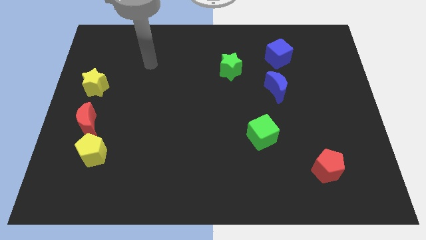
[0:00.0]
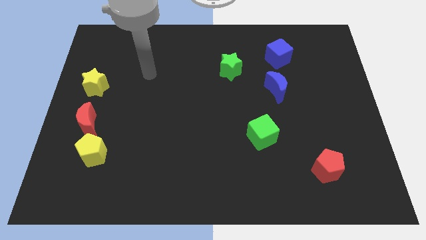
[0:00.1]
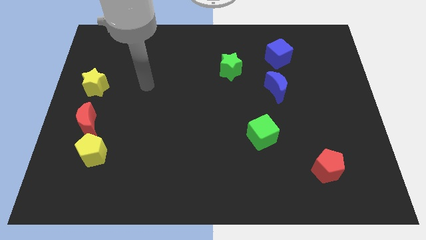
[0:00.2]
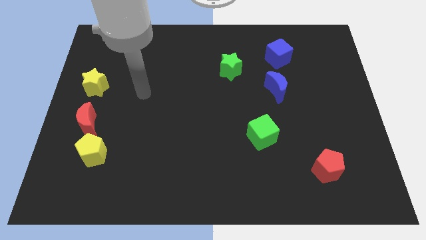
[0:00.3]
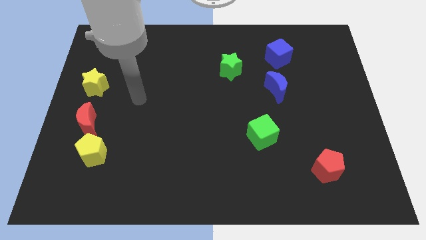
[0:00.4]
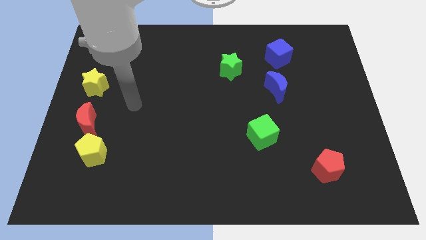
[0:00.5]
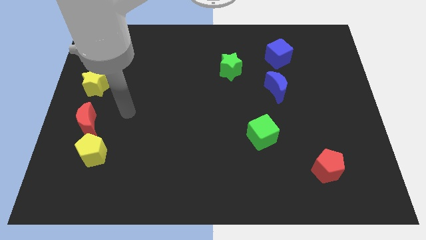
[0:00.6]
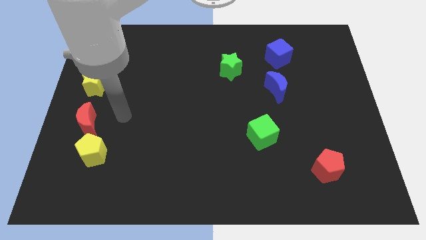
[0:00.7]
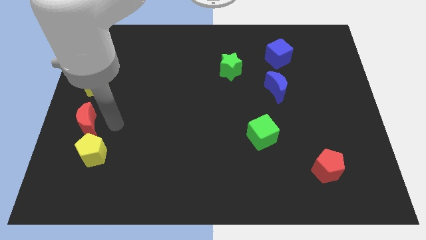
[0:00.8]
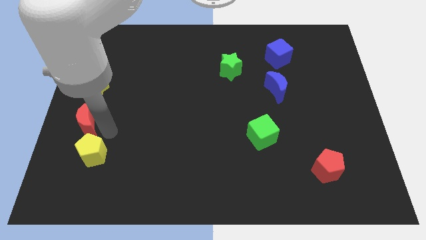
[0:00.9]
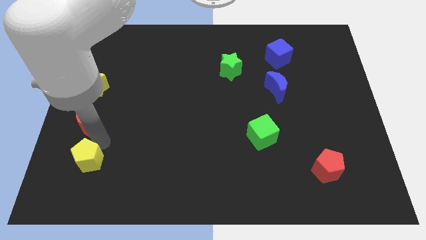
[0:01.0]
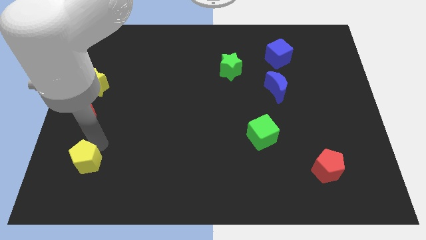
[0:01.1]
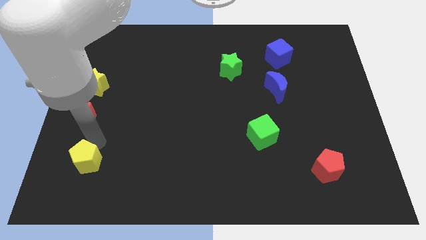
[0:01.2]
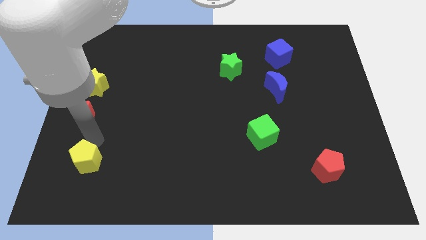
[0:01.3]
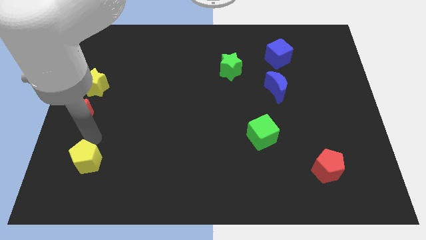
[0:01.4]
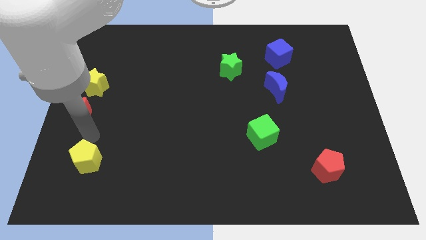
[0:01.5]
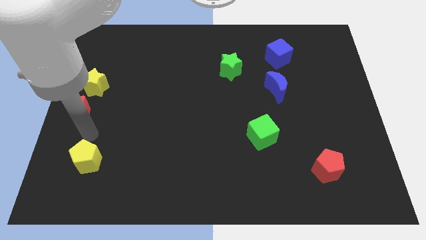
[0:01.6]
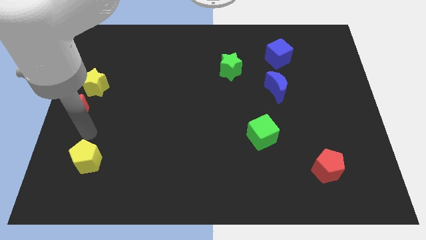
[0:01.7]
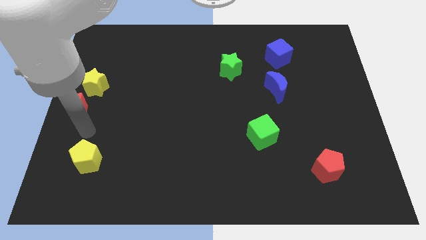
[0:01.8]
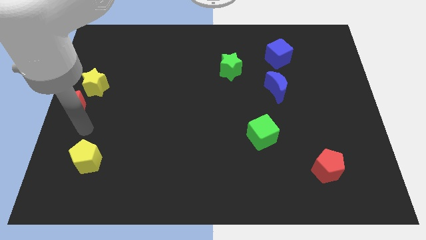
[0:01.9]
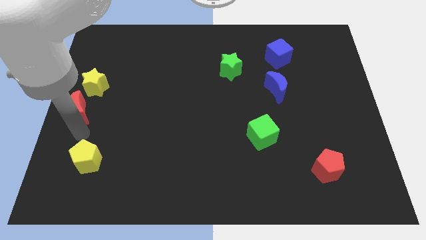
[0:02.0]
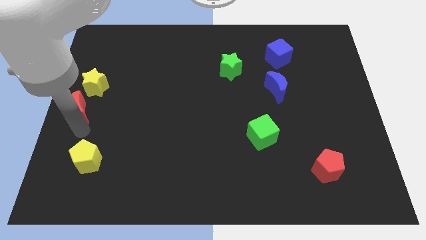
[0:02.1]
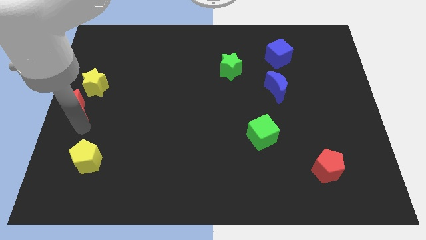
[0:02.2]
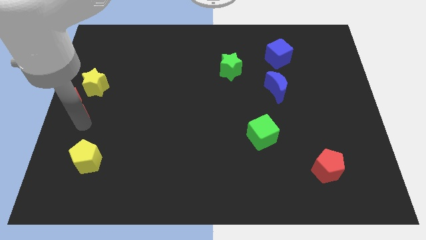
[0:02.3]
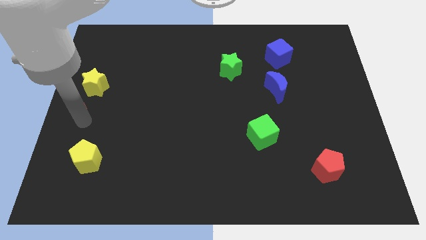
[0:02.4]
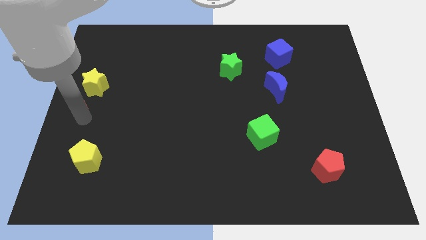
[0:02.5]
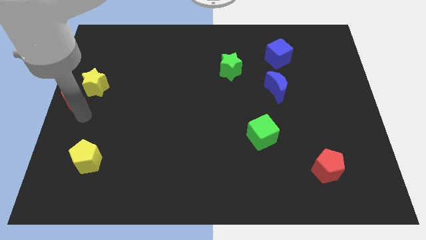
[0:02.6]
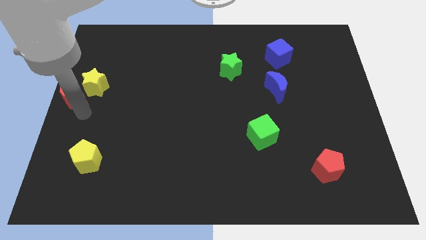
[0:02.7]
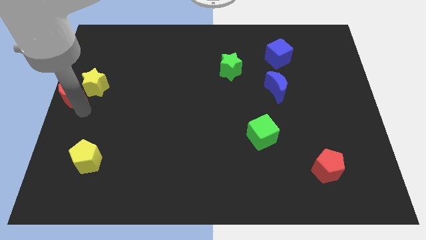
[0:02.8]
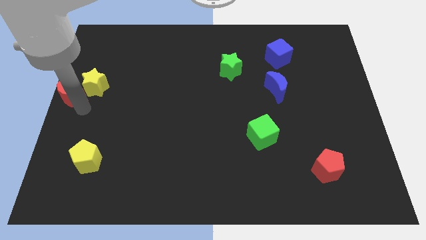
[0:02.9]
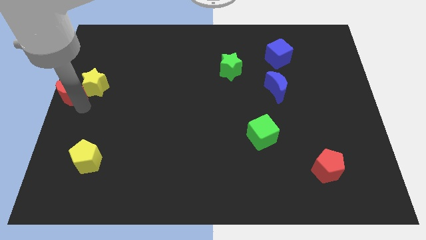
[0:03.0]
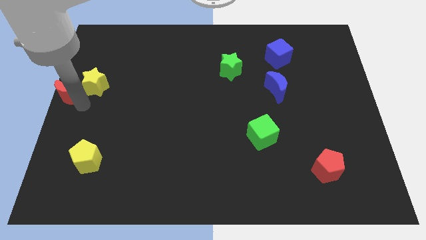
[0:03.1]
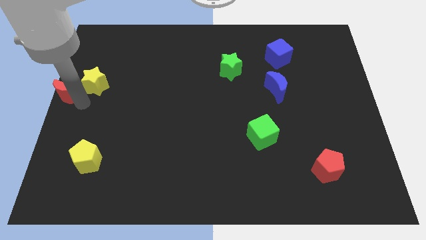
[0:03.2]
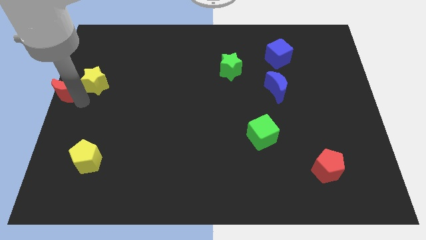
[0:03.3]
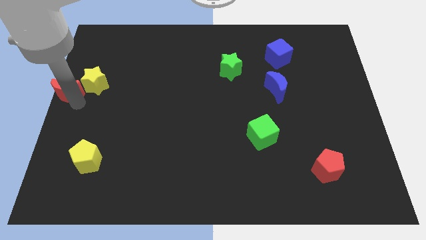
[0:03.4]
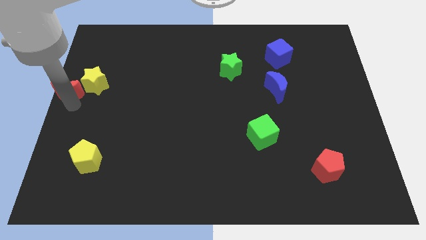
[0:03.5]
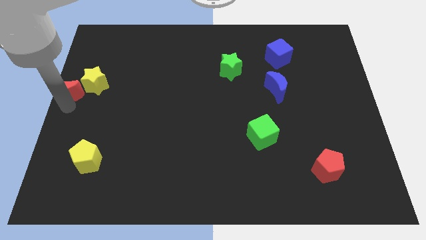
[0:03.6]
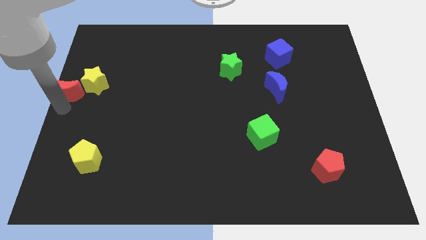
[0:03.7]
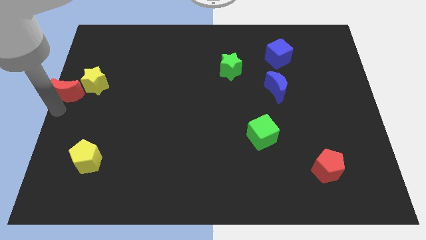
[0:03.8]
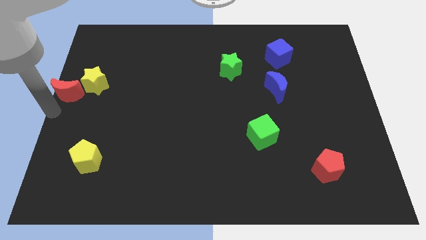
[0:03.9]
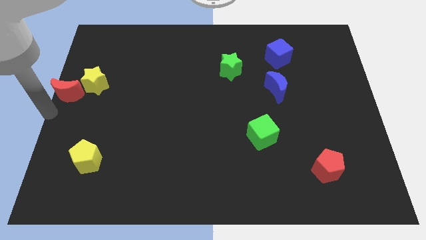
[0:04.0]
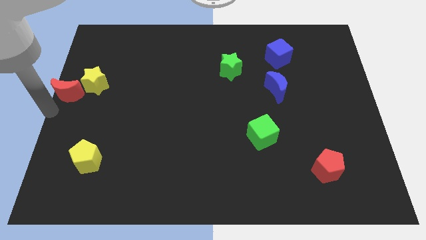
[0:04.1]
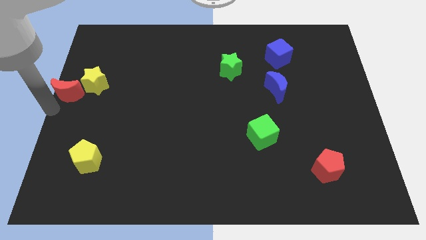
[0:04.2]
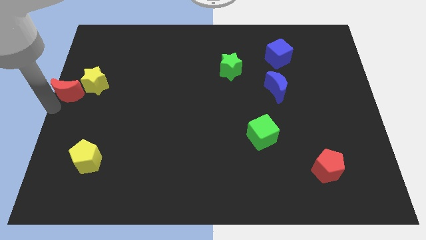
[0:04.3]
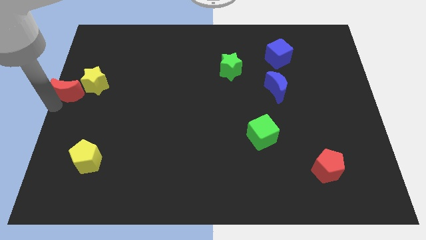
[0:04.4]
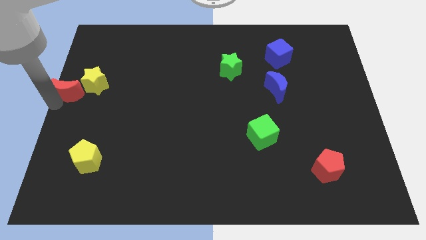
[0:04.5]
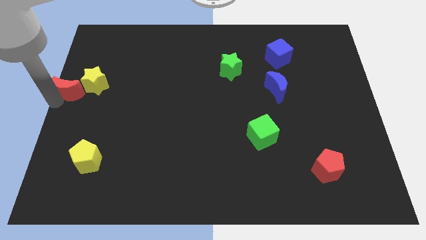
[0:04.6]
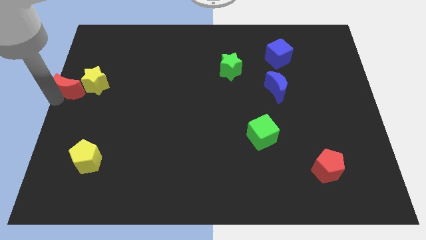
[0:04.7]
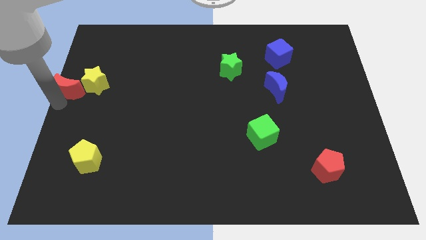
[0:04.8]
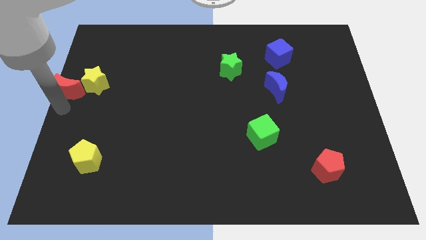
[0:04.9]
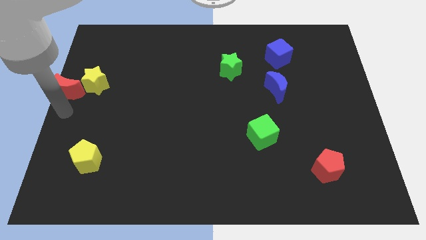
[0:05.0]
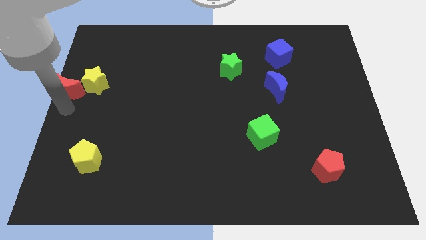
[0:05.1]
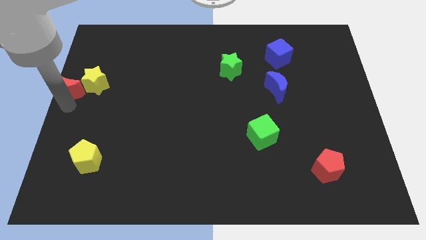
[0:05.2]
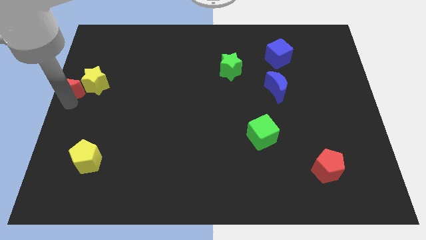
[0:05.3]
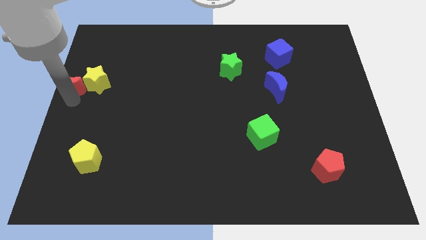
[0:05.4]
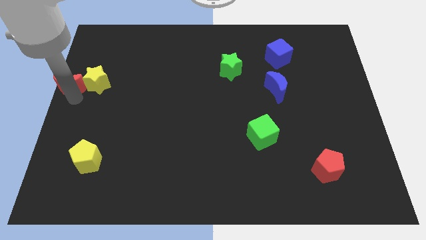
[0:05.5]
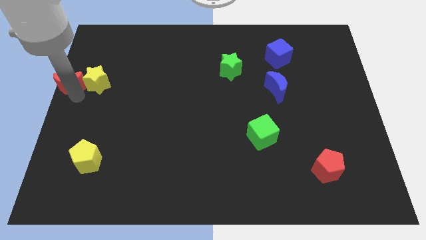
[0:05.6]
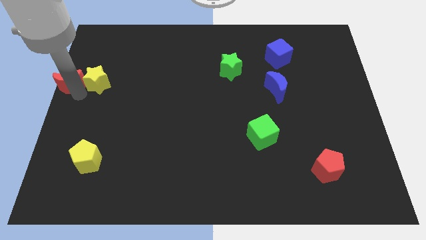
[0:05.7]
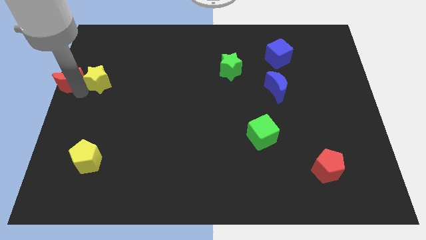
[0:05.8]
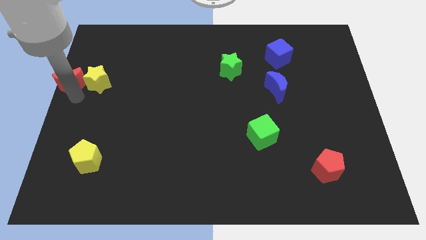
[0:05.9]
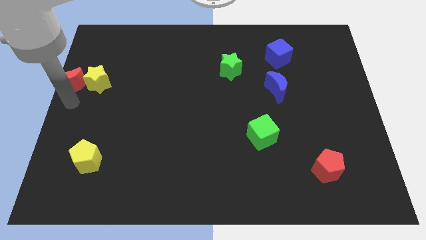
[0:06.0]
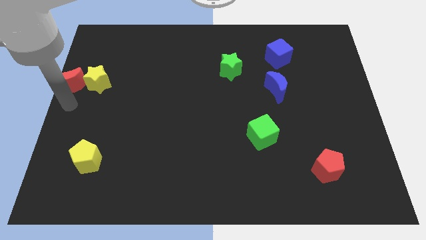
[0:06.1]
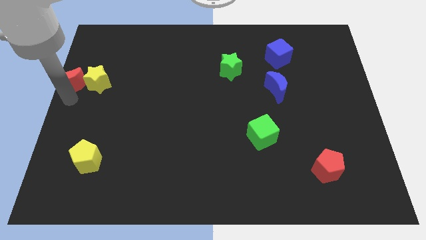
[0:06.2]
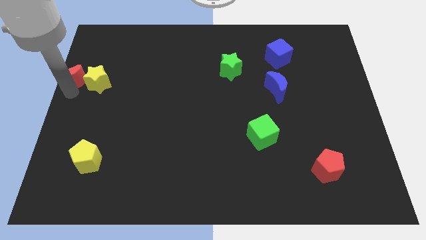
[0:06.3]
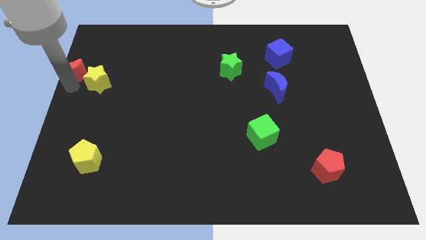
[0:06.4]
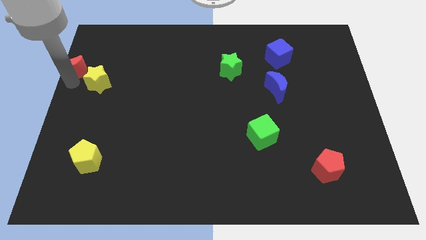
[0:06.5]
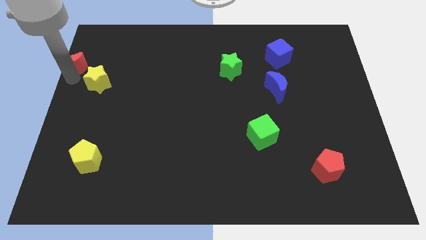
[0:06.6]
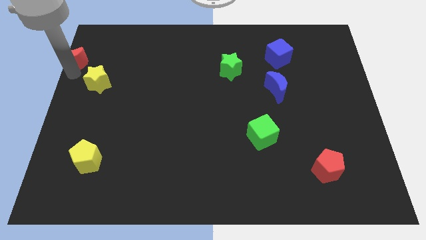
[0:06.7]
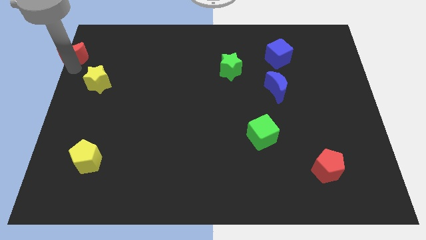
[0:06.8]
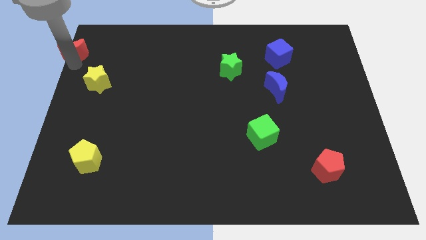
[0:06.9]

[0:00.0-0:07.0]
slide the red moon to the top left

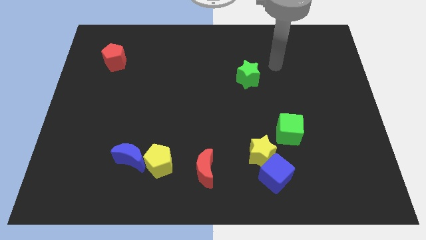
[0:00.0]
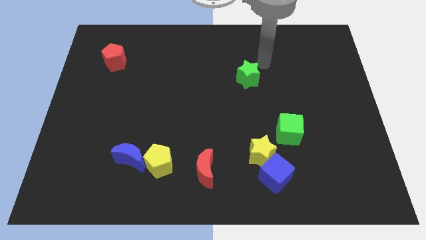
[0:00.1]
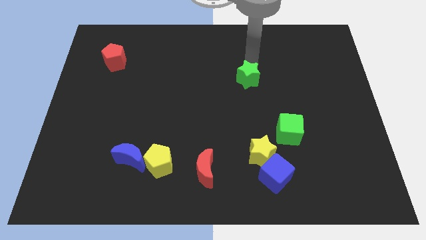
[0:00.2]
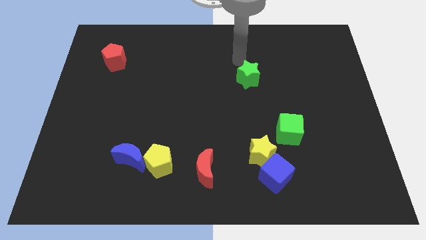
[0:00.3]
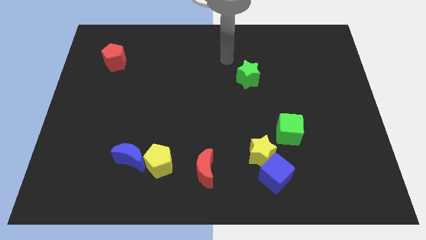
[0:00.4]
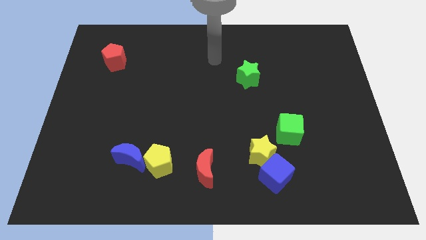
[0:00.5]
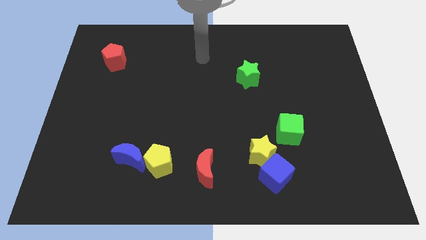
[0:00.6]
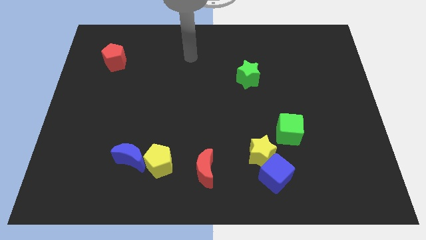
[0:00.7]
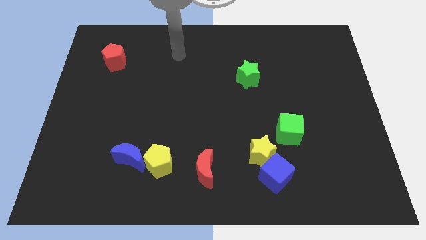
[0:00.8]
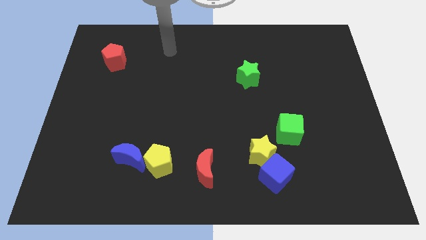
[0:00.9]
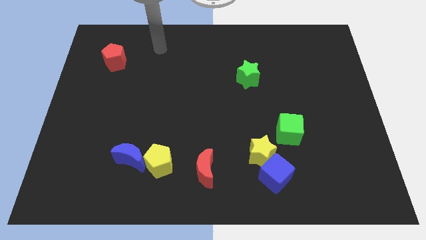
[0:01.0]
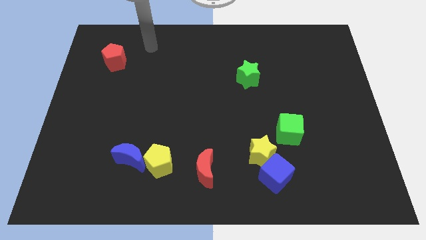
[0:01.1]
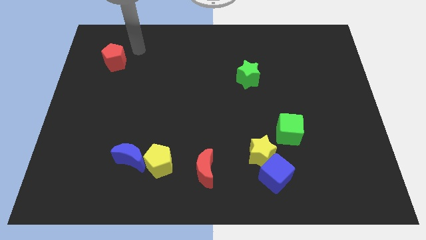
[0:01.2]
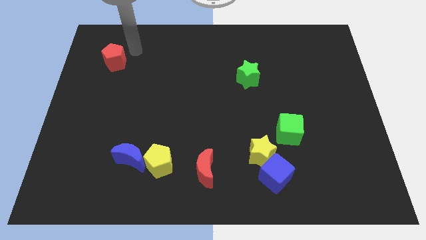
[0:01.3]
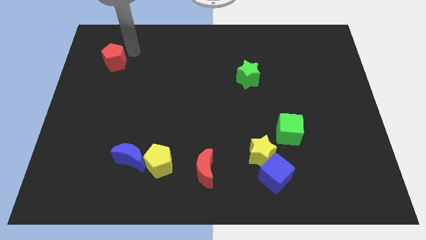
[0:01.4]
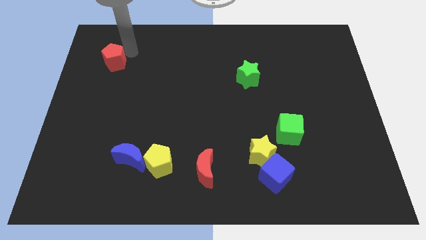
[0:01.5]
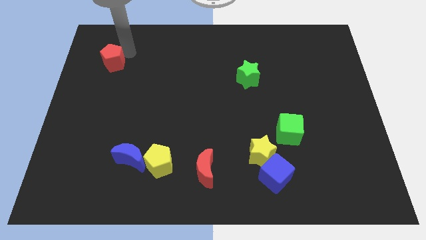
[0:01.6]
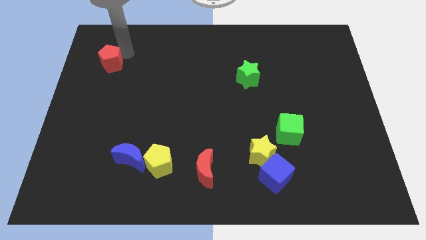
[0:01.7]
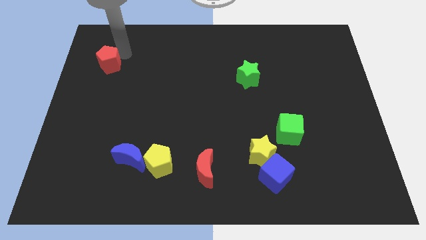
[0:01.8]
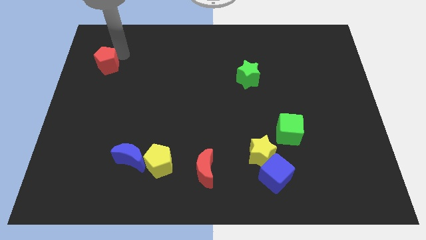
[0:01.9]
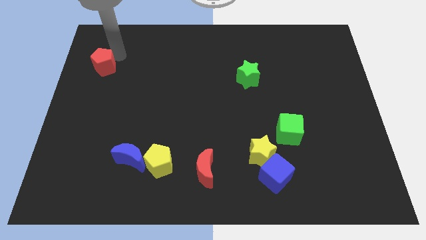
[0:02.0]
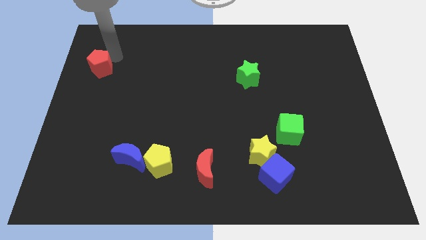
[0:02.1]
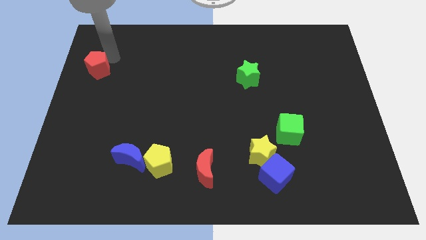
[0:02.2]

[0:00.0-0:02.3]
put the red pentagon to the left side of the board
